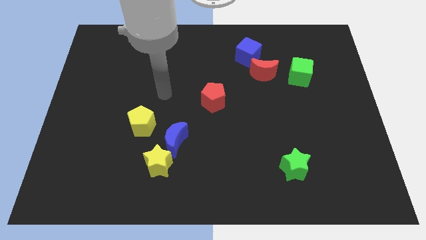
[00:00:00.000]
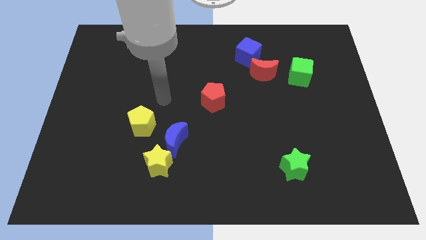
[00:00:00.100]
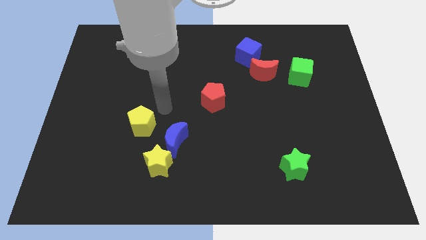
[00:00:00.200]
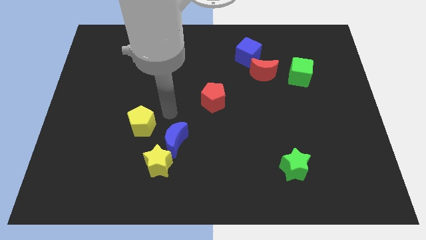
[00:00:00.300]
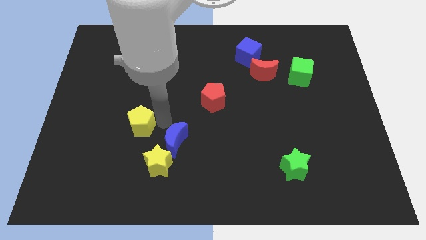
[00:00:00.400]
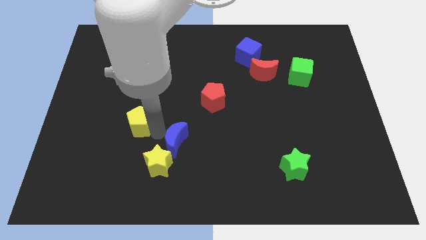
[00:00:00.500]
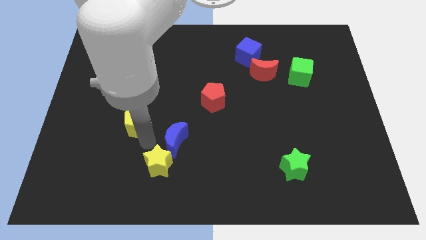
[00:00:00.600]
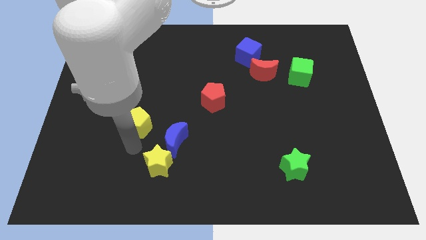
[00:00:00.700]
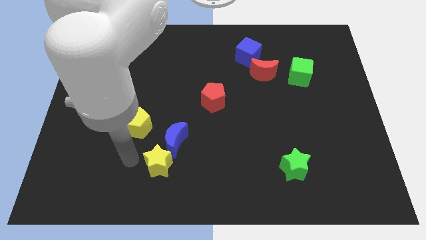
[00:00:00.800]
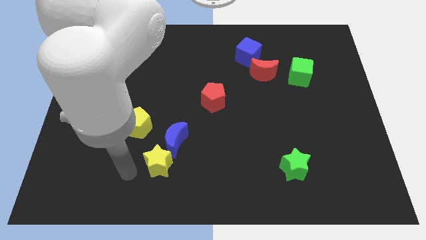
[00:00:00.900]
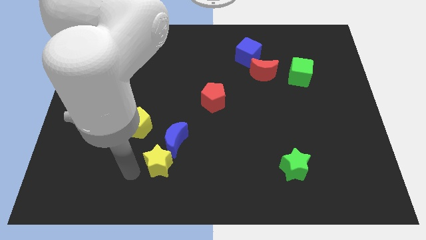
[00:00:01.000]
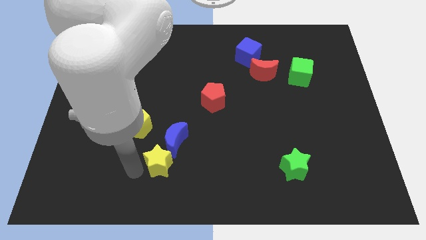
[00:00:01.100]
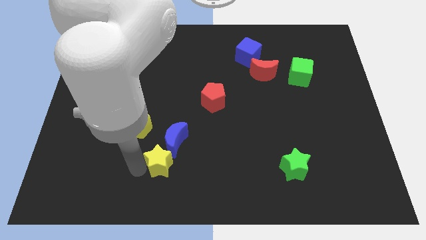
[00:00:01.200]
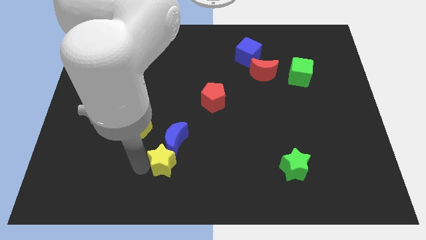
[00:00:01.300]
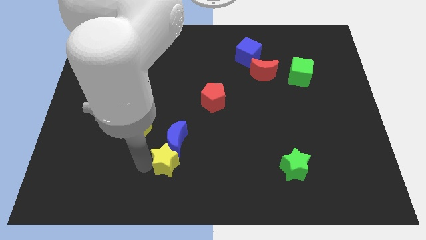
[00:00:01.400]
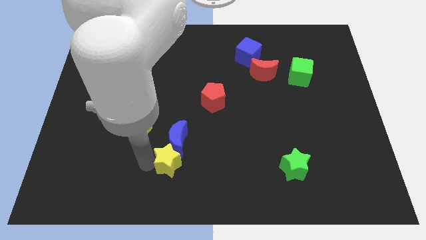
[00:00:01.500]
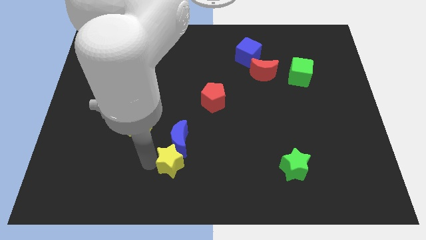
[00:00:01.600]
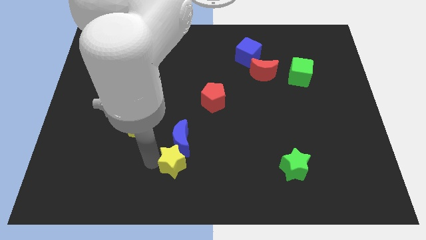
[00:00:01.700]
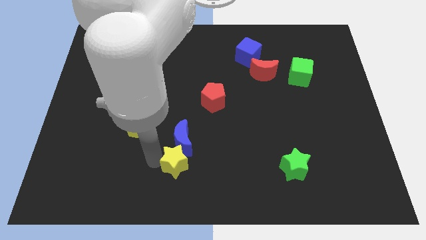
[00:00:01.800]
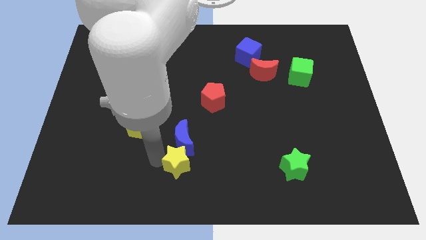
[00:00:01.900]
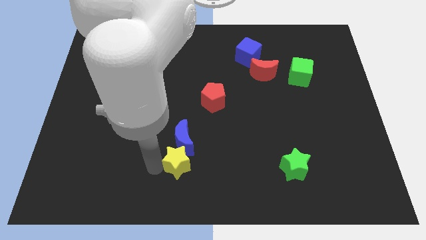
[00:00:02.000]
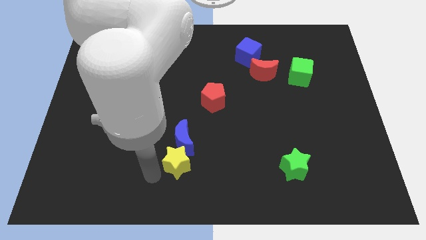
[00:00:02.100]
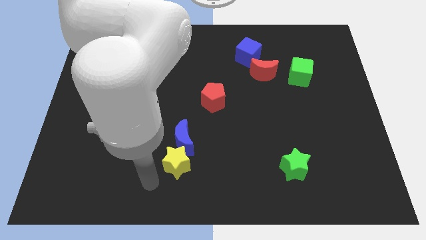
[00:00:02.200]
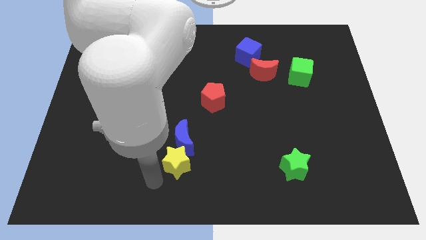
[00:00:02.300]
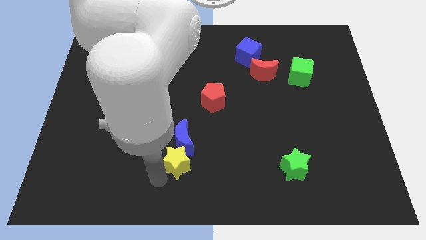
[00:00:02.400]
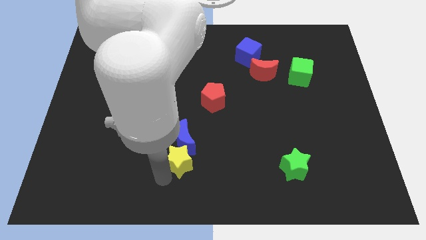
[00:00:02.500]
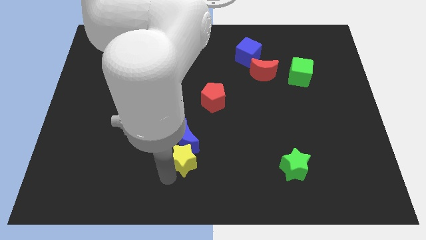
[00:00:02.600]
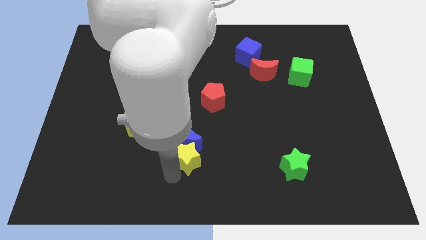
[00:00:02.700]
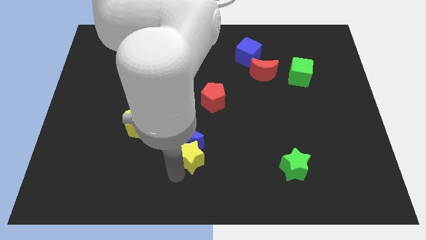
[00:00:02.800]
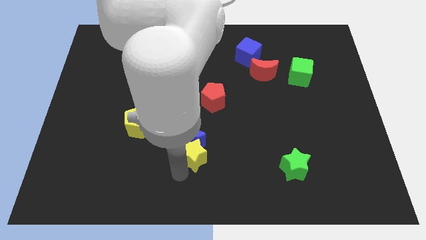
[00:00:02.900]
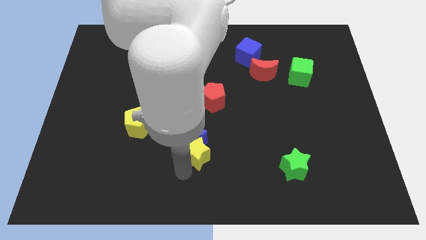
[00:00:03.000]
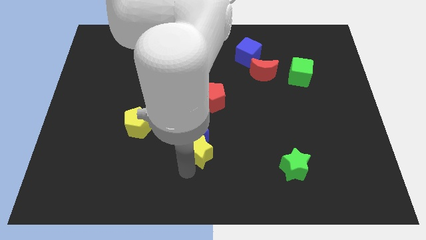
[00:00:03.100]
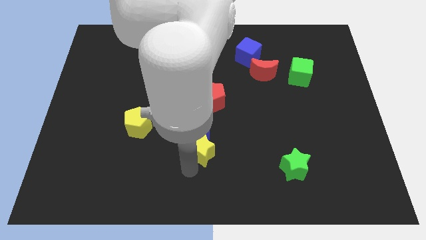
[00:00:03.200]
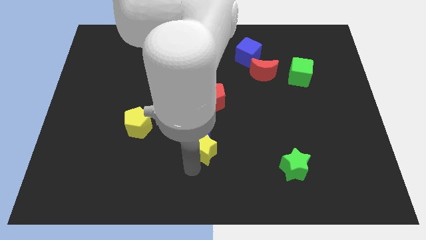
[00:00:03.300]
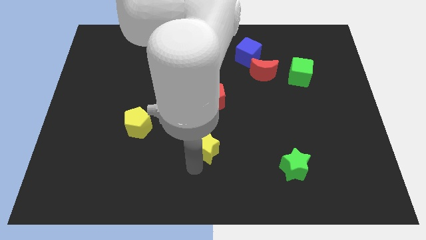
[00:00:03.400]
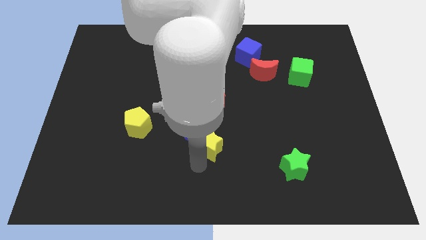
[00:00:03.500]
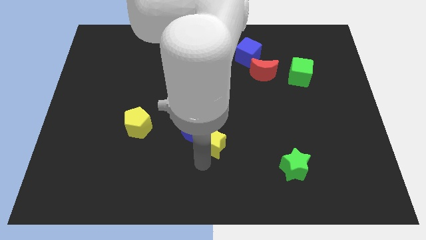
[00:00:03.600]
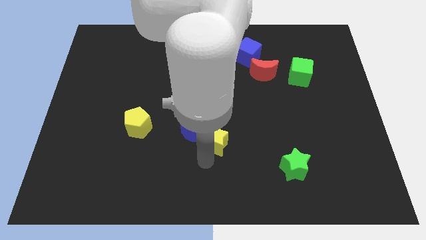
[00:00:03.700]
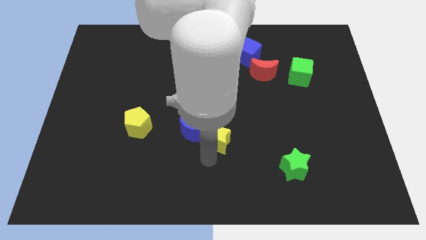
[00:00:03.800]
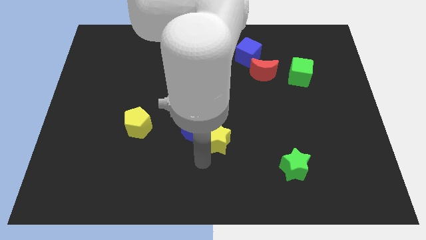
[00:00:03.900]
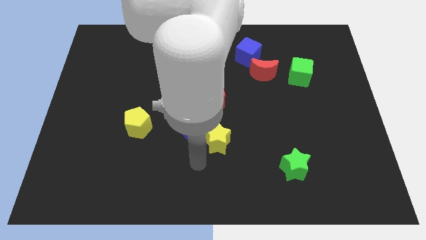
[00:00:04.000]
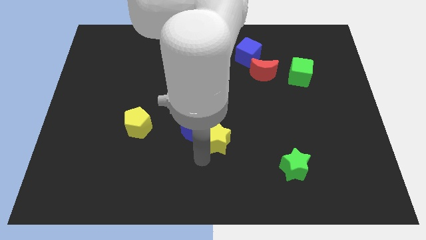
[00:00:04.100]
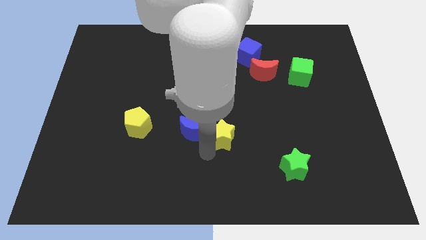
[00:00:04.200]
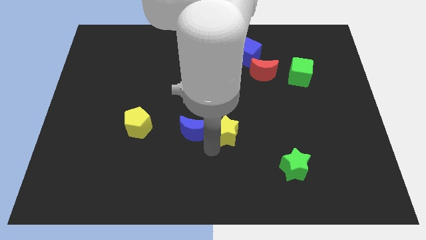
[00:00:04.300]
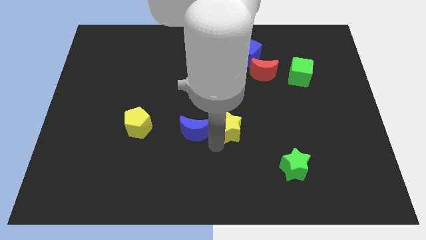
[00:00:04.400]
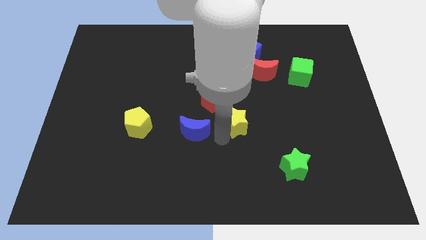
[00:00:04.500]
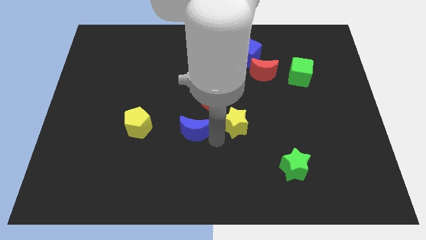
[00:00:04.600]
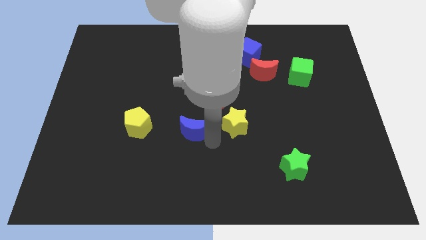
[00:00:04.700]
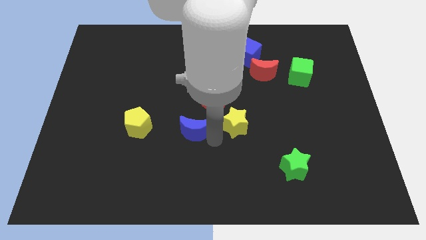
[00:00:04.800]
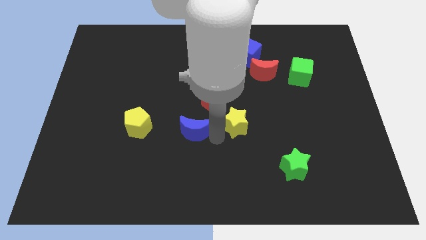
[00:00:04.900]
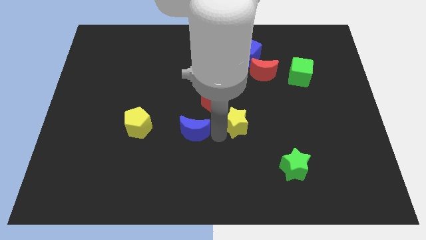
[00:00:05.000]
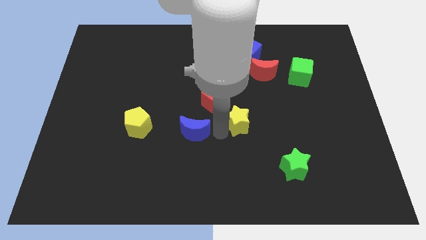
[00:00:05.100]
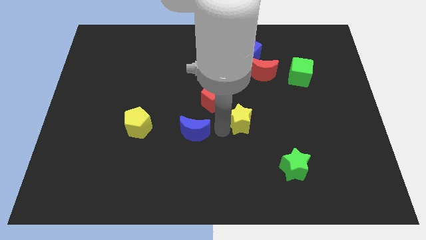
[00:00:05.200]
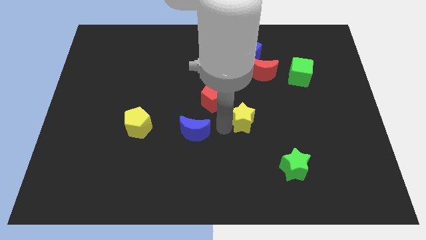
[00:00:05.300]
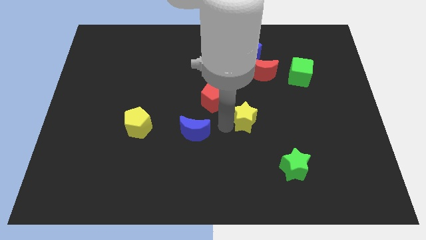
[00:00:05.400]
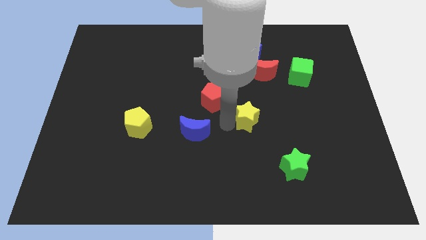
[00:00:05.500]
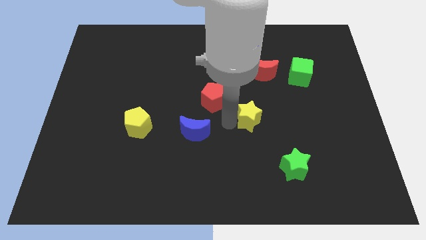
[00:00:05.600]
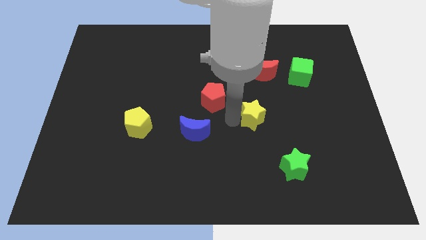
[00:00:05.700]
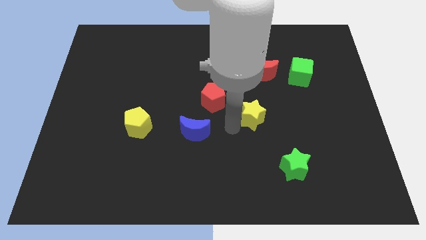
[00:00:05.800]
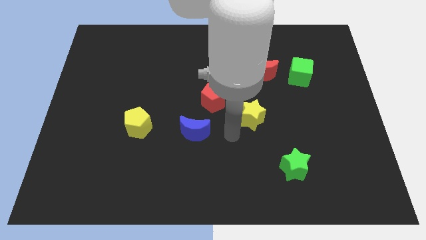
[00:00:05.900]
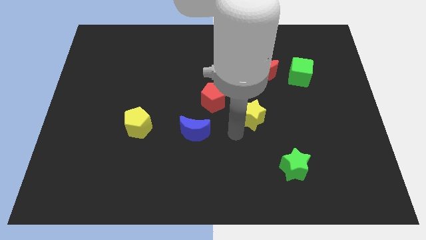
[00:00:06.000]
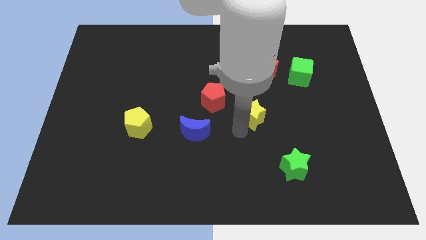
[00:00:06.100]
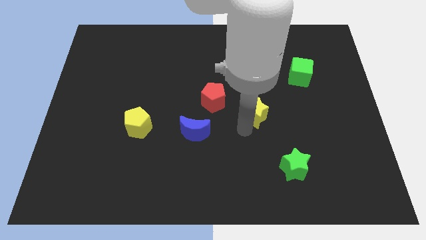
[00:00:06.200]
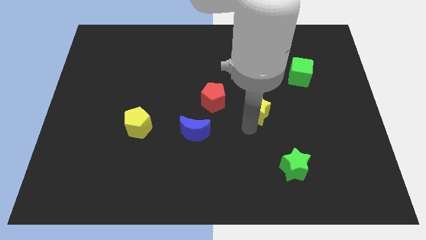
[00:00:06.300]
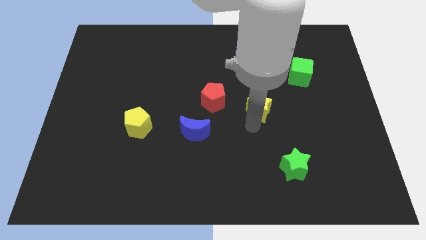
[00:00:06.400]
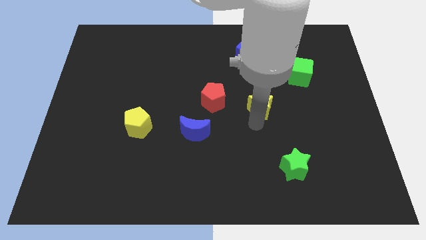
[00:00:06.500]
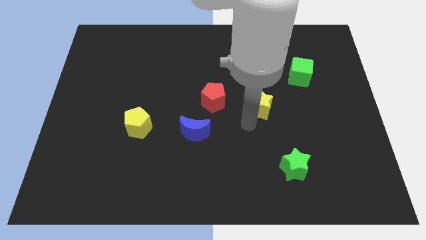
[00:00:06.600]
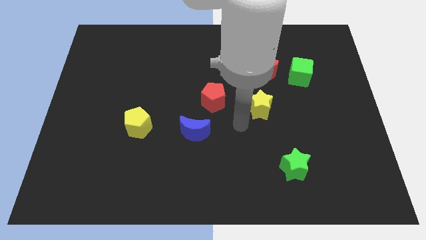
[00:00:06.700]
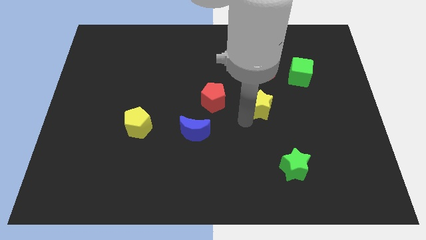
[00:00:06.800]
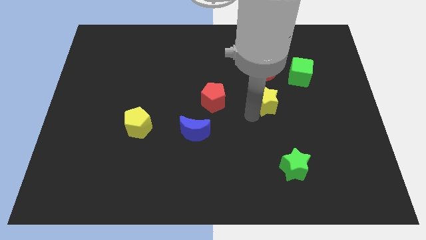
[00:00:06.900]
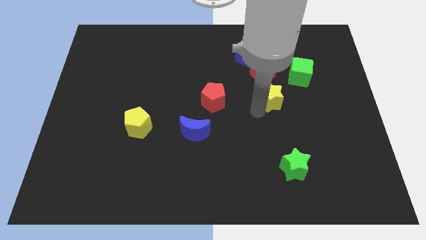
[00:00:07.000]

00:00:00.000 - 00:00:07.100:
slide the yellow star diagonally down and to the left of the green cube

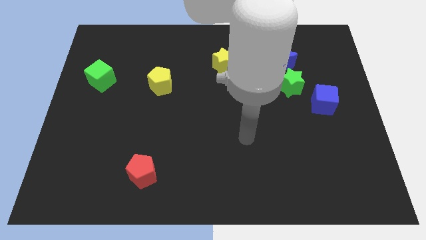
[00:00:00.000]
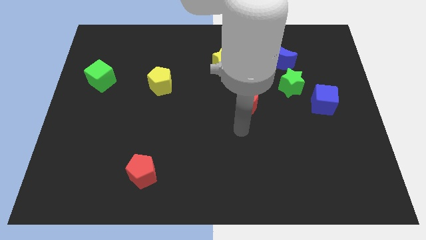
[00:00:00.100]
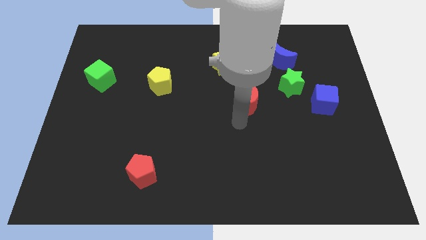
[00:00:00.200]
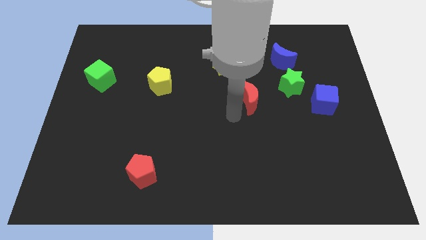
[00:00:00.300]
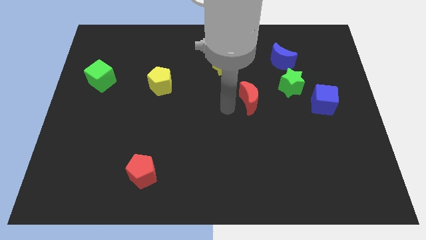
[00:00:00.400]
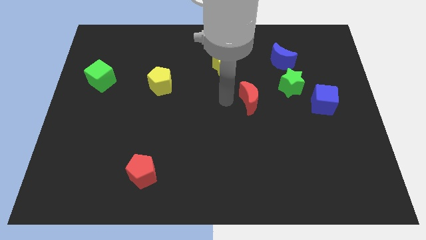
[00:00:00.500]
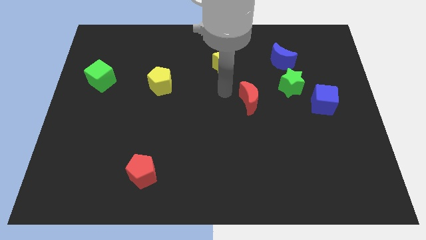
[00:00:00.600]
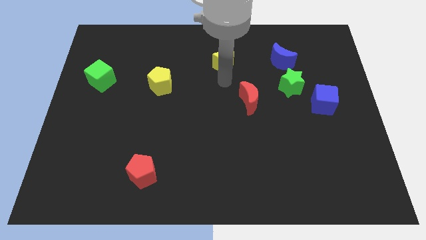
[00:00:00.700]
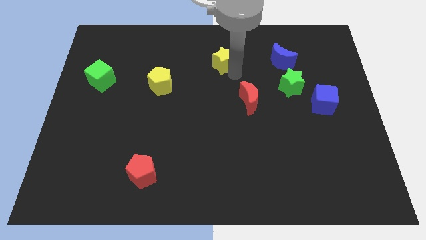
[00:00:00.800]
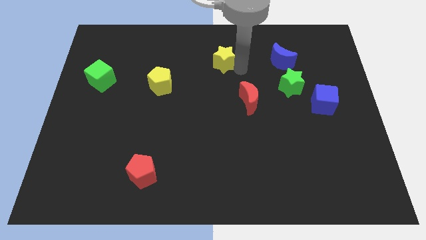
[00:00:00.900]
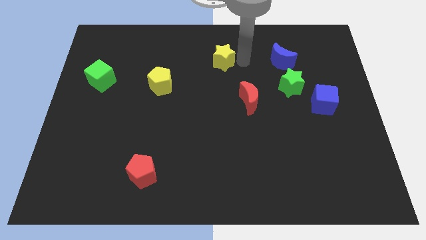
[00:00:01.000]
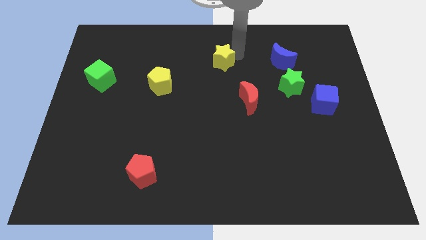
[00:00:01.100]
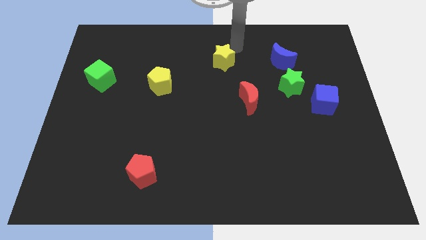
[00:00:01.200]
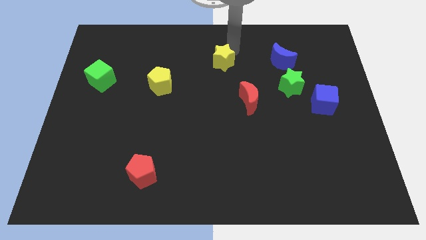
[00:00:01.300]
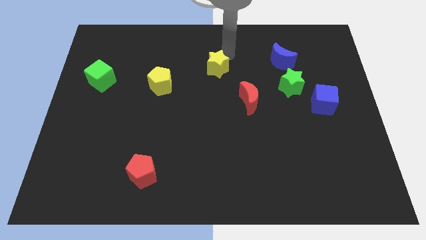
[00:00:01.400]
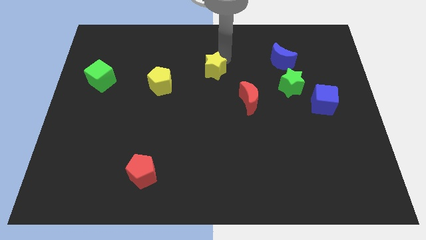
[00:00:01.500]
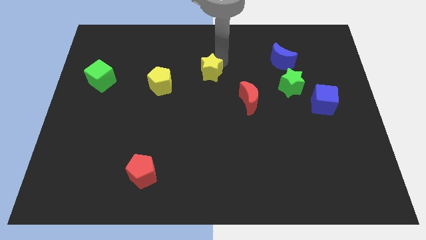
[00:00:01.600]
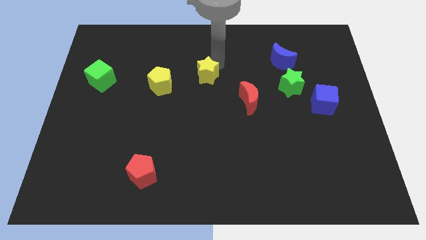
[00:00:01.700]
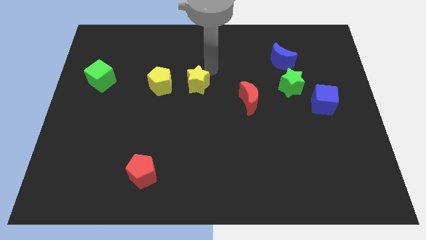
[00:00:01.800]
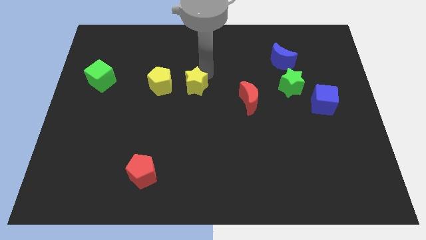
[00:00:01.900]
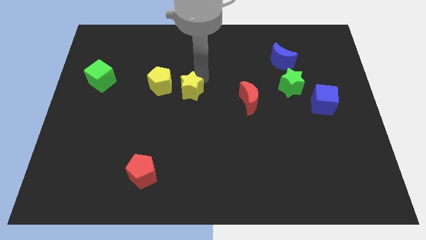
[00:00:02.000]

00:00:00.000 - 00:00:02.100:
push the yellow star diagonally down and to the right of the yellow pentagon
